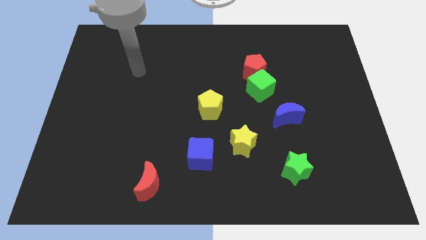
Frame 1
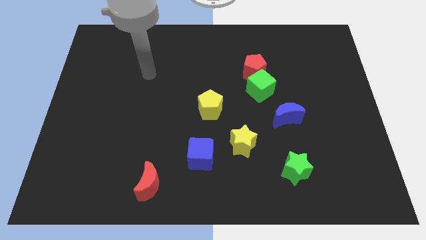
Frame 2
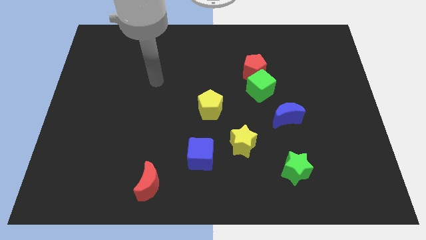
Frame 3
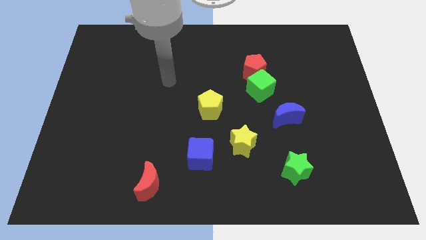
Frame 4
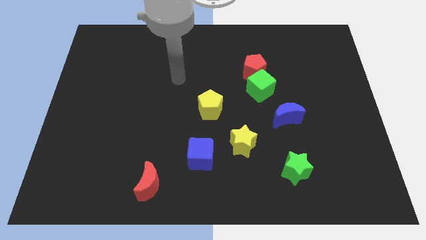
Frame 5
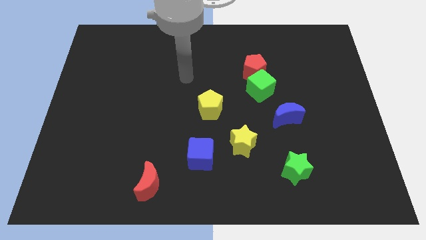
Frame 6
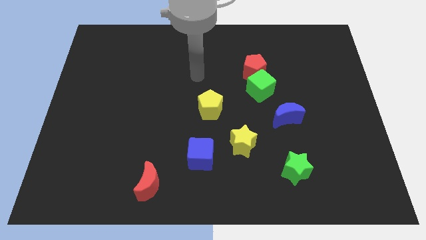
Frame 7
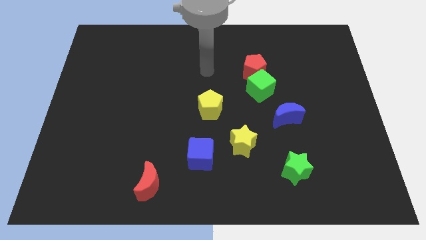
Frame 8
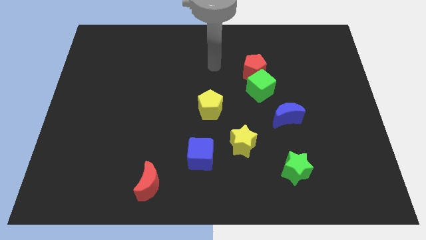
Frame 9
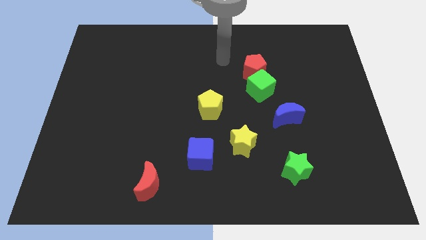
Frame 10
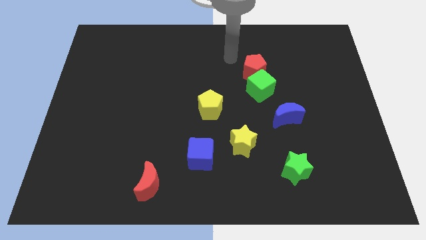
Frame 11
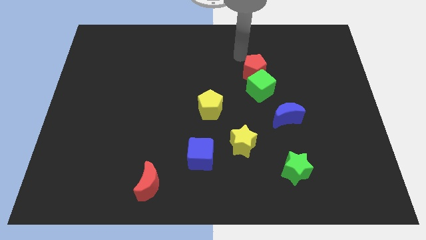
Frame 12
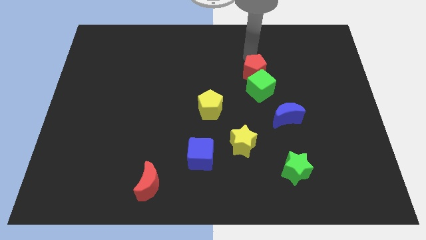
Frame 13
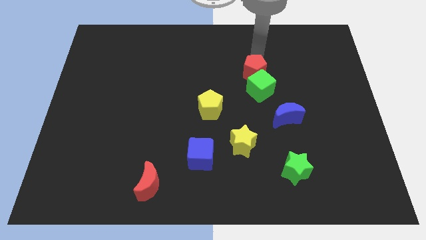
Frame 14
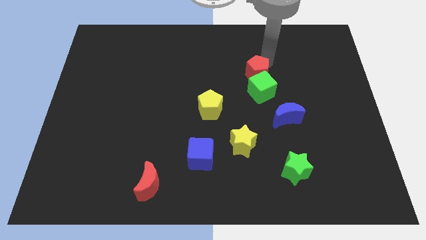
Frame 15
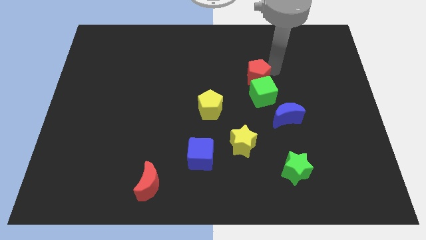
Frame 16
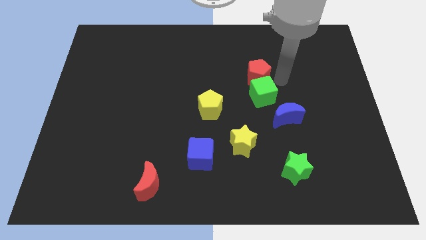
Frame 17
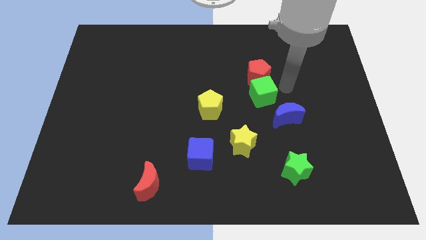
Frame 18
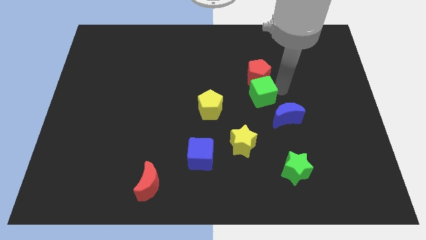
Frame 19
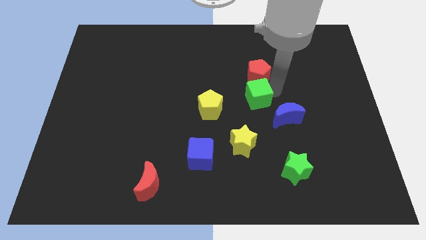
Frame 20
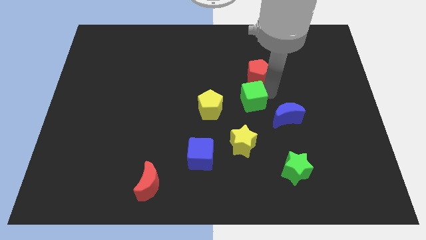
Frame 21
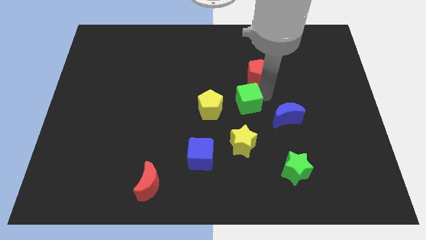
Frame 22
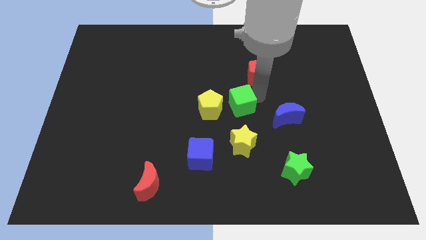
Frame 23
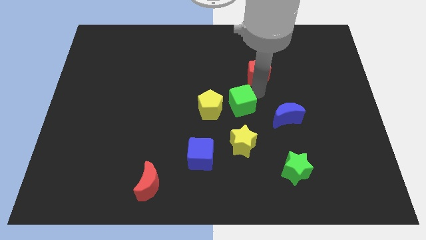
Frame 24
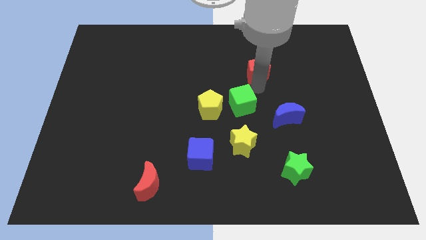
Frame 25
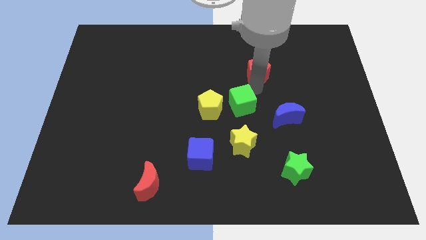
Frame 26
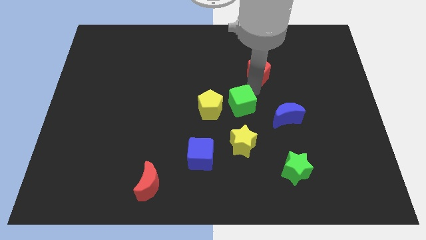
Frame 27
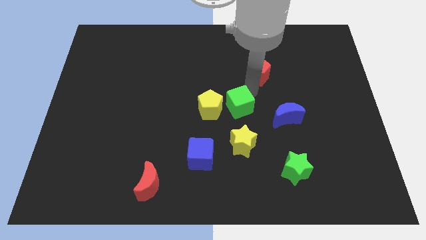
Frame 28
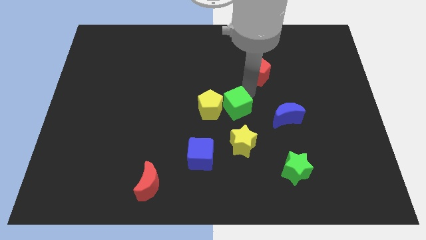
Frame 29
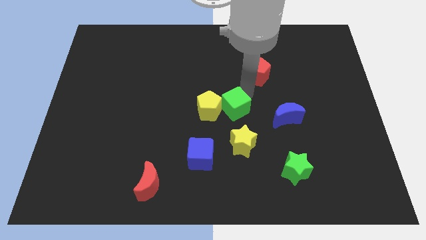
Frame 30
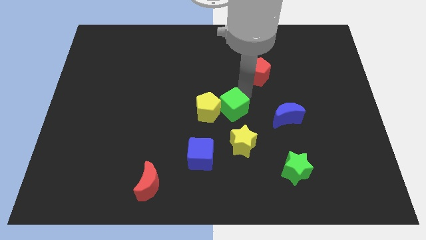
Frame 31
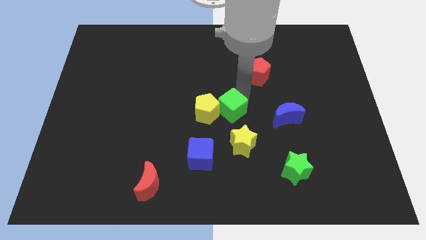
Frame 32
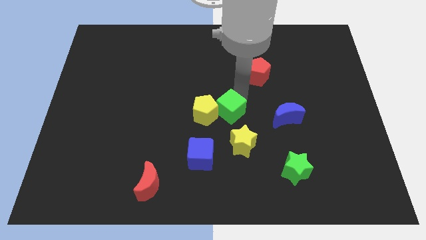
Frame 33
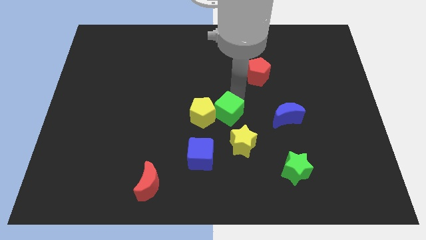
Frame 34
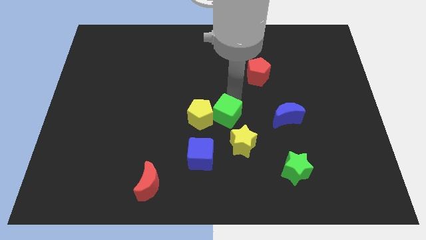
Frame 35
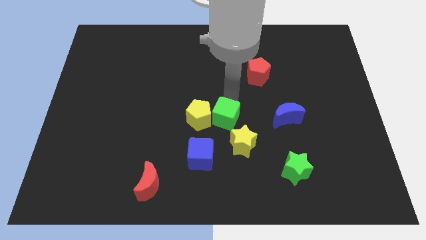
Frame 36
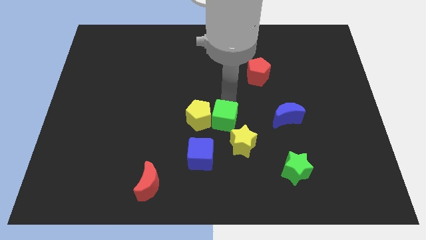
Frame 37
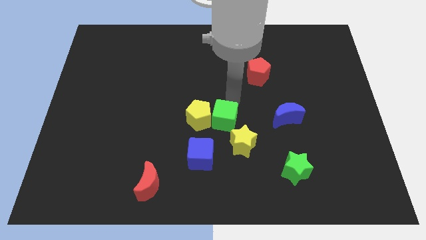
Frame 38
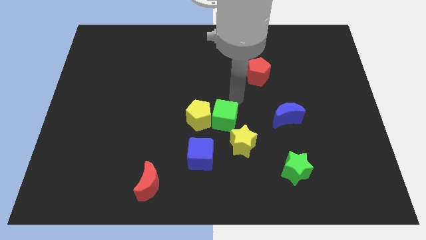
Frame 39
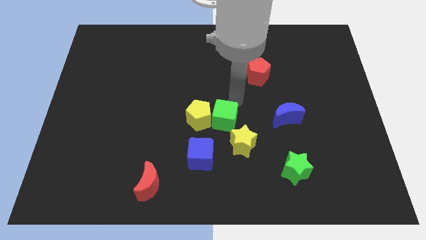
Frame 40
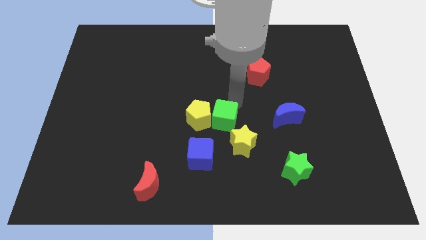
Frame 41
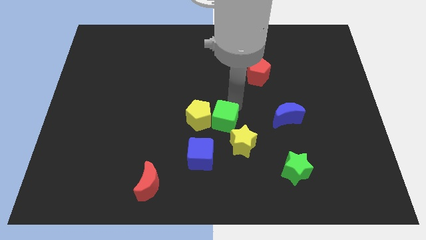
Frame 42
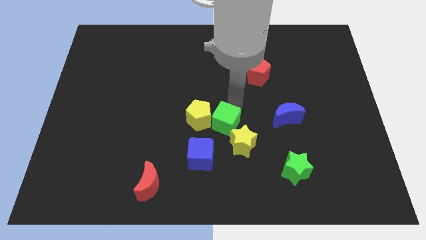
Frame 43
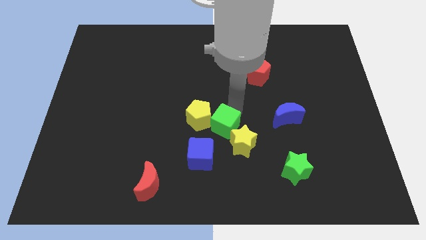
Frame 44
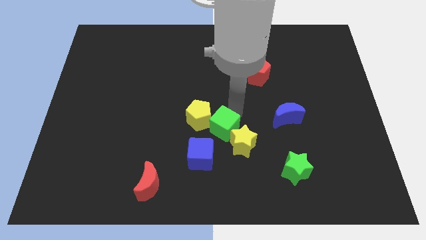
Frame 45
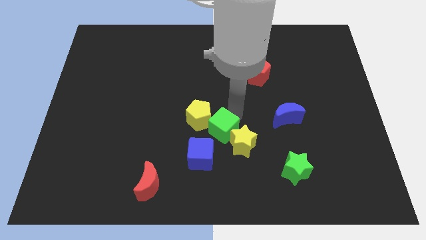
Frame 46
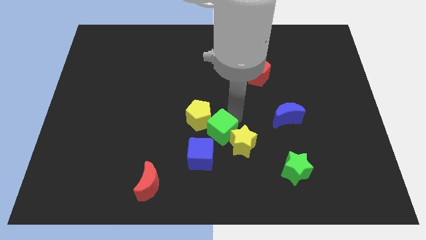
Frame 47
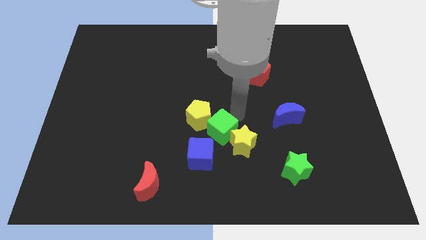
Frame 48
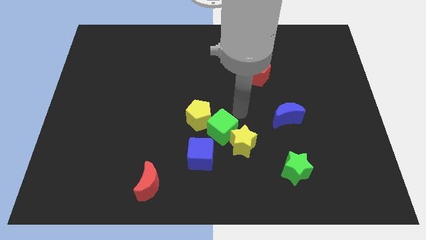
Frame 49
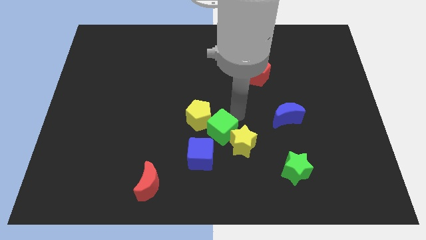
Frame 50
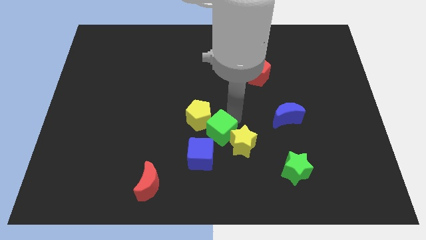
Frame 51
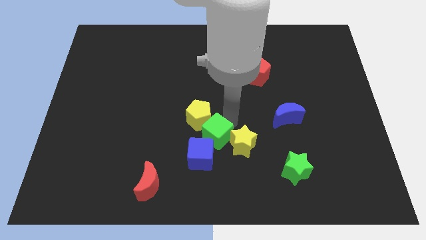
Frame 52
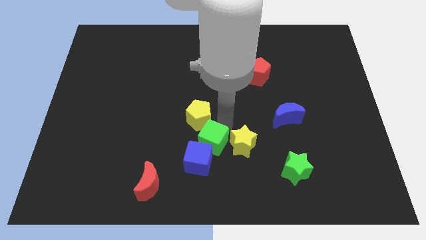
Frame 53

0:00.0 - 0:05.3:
put the green cube close to the blue cube

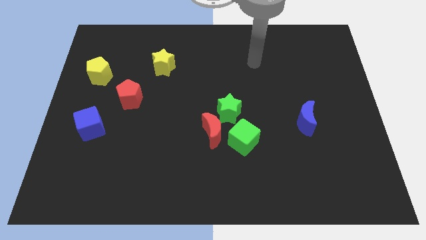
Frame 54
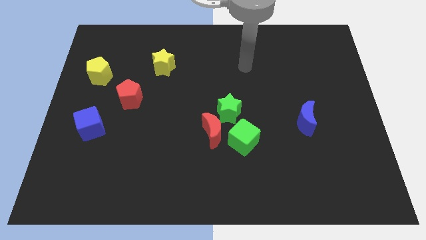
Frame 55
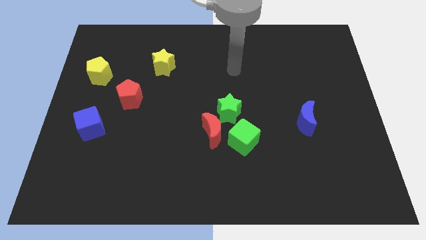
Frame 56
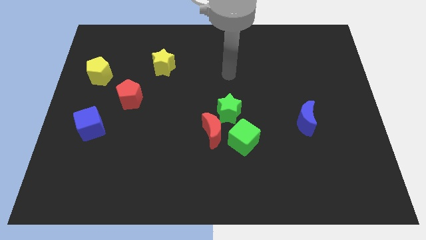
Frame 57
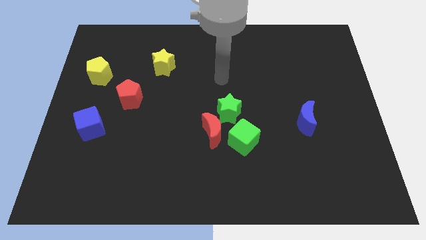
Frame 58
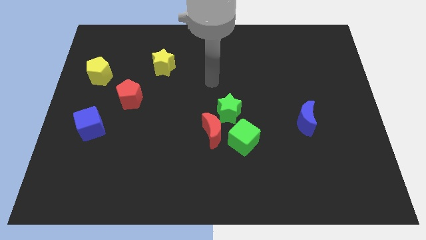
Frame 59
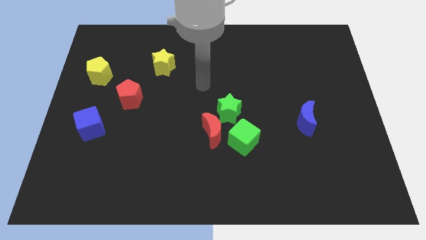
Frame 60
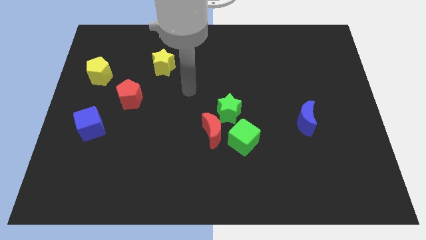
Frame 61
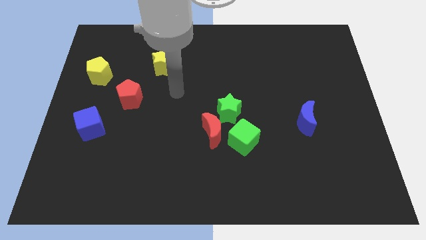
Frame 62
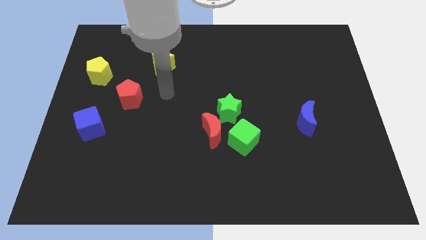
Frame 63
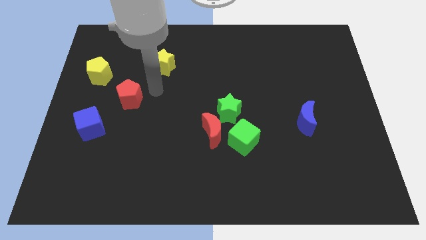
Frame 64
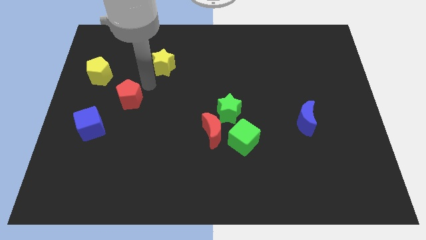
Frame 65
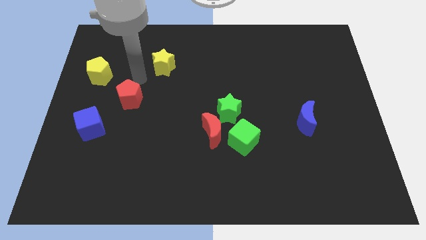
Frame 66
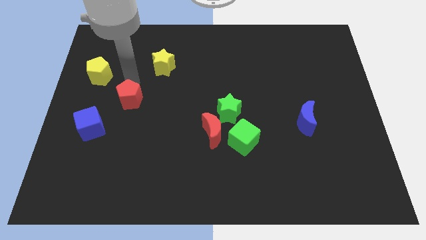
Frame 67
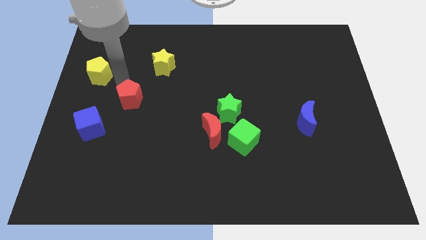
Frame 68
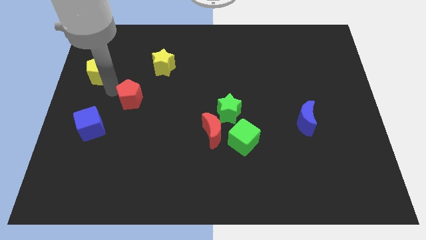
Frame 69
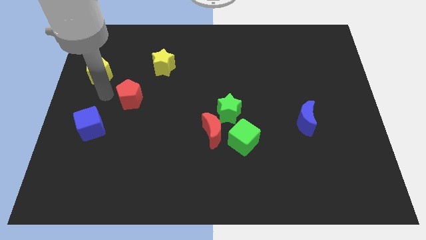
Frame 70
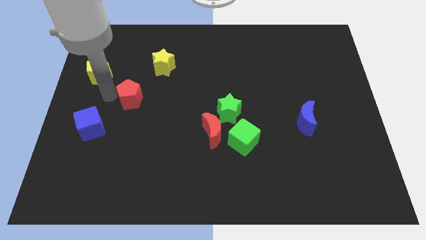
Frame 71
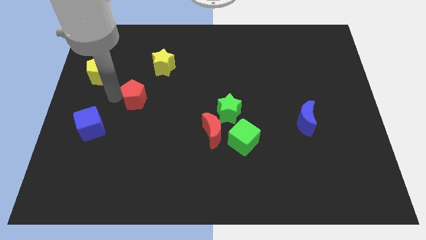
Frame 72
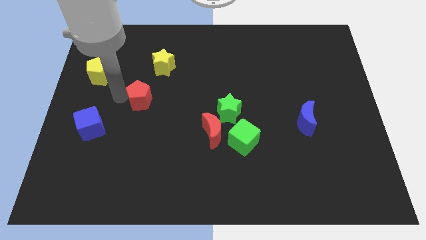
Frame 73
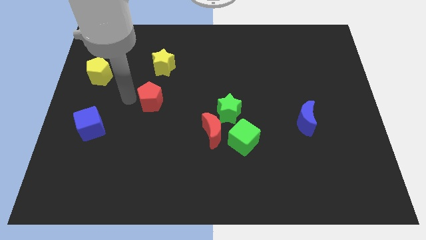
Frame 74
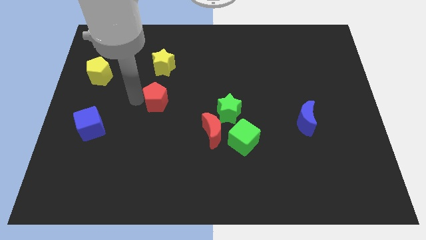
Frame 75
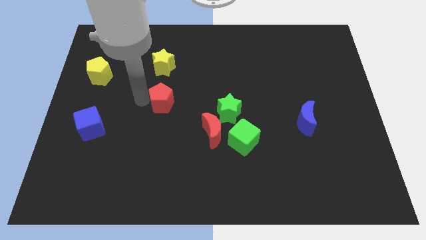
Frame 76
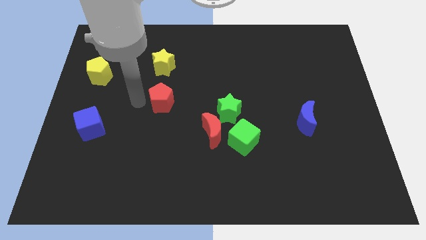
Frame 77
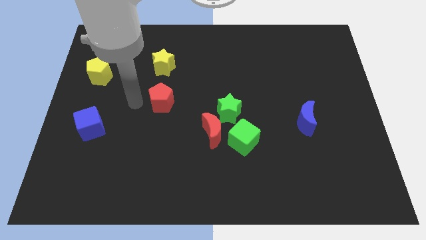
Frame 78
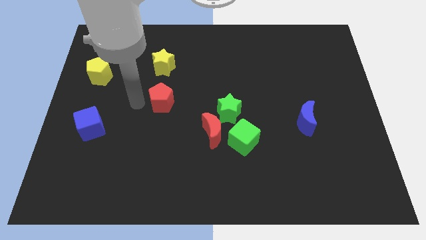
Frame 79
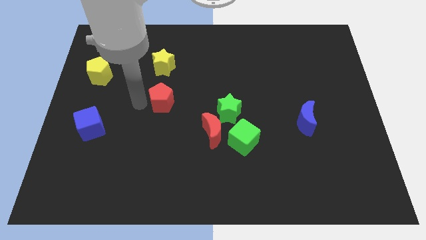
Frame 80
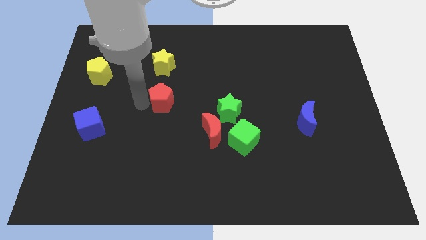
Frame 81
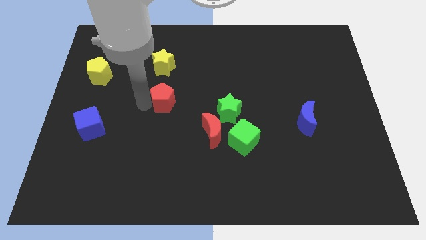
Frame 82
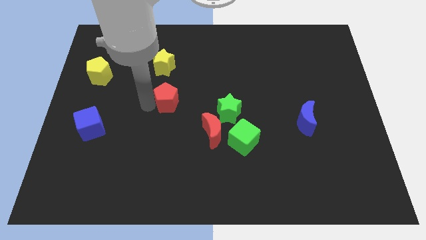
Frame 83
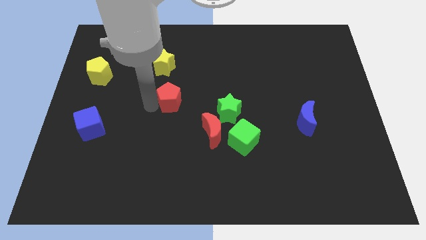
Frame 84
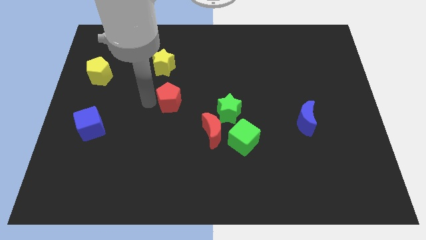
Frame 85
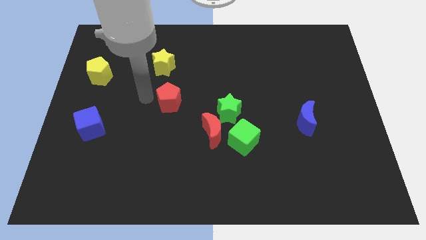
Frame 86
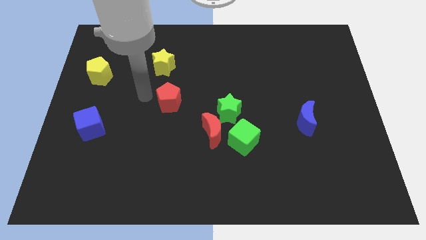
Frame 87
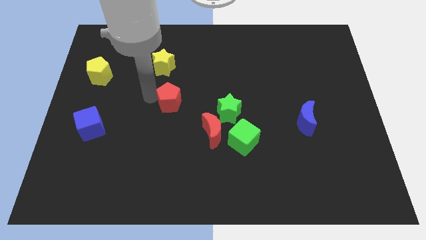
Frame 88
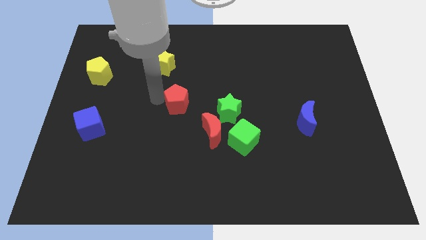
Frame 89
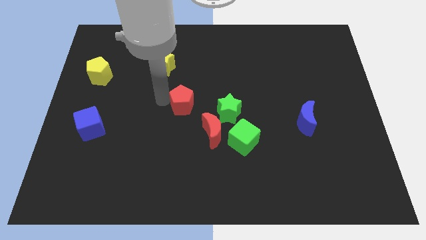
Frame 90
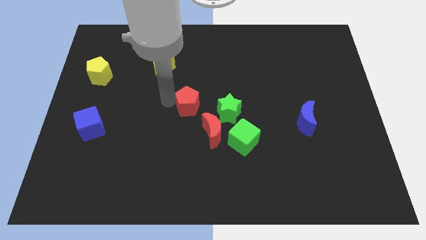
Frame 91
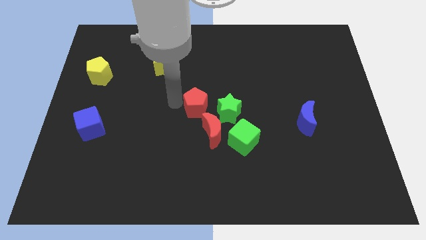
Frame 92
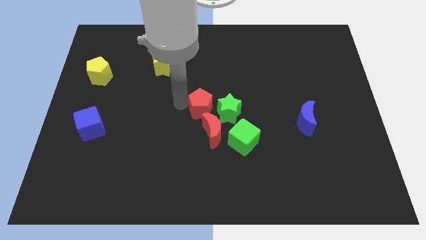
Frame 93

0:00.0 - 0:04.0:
push the red pentagon close to the green star
